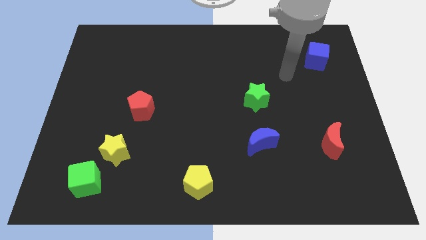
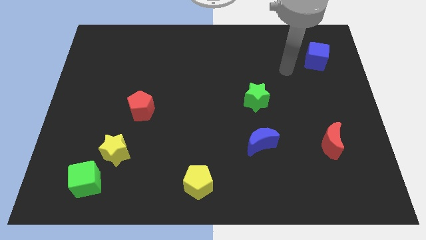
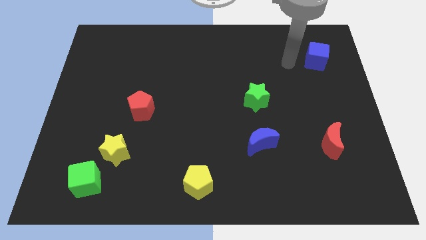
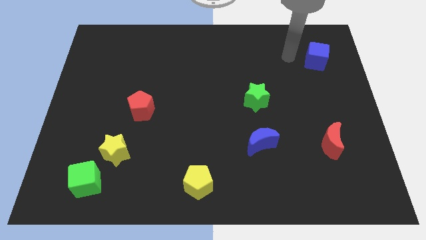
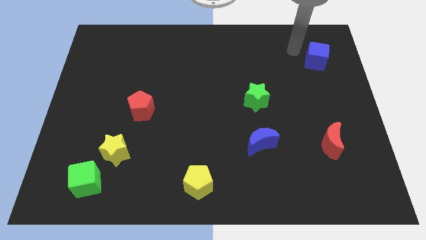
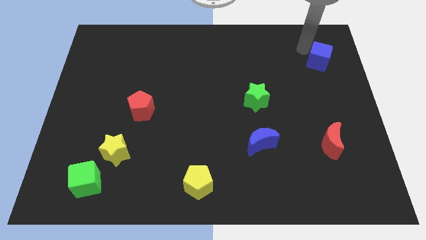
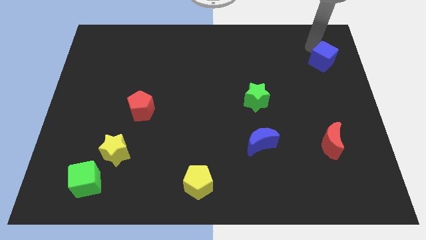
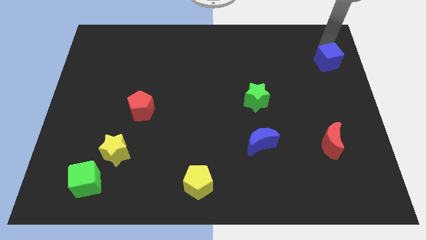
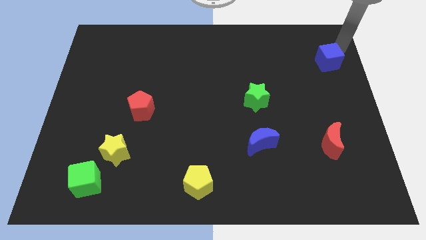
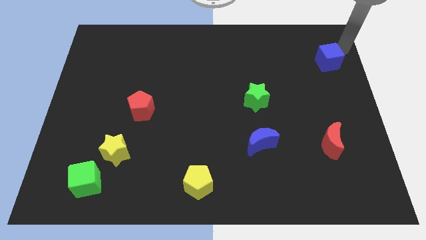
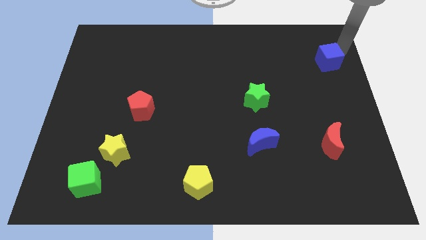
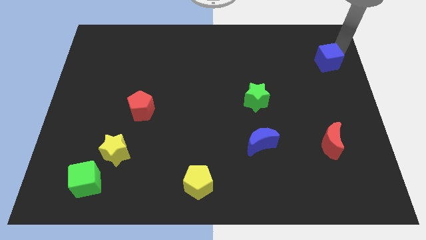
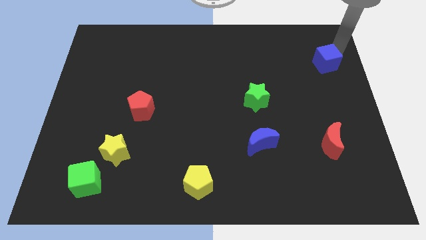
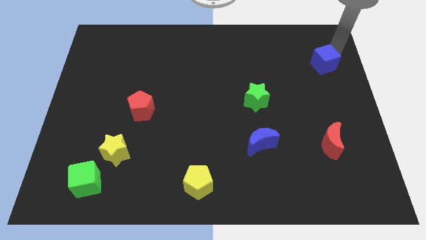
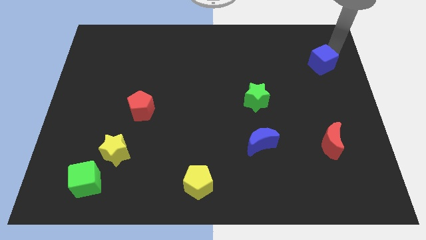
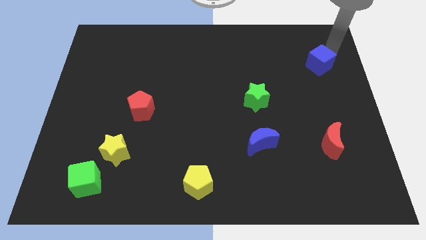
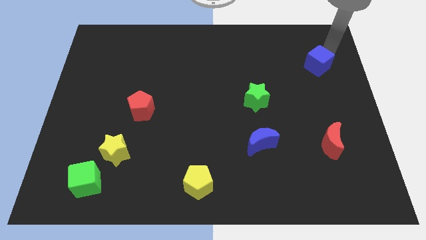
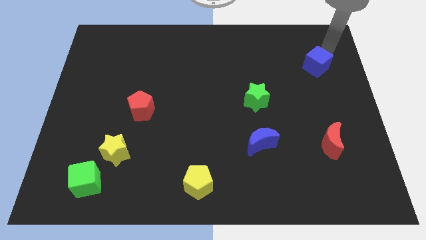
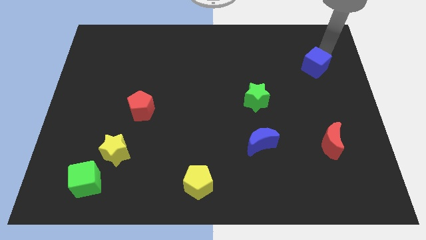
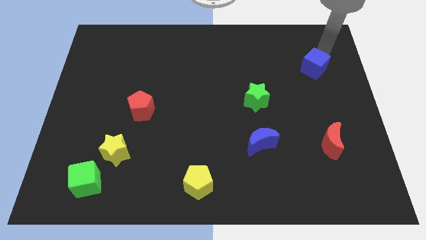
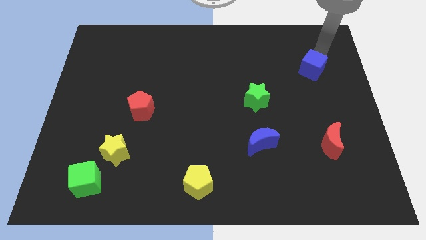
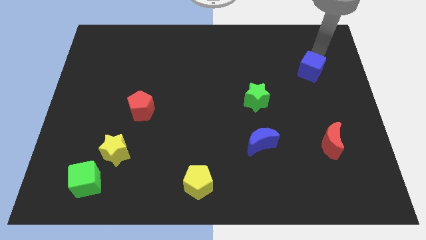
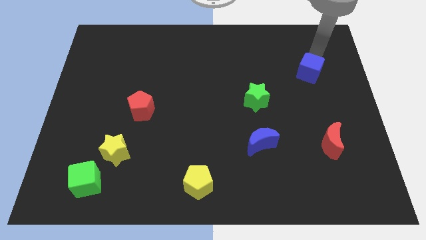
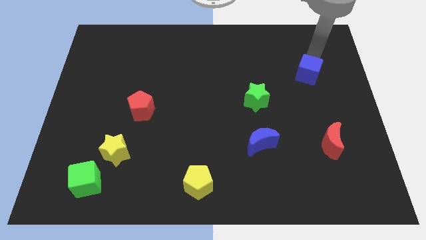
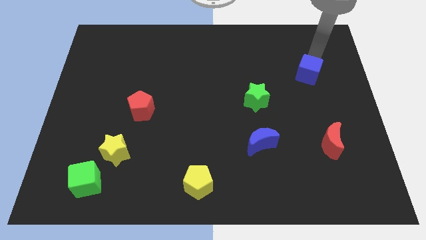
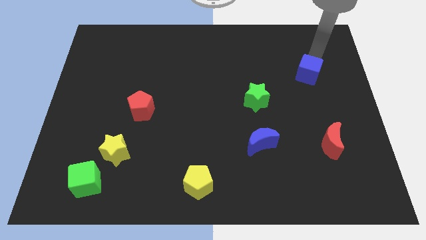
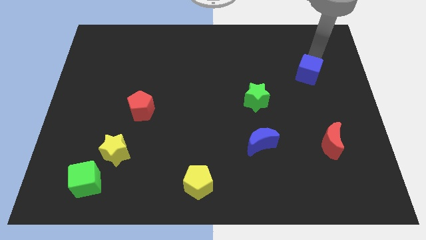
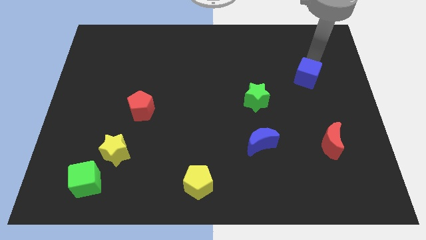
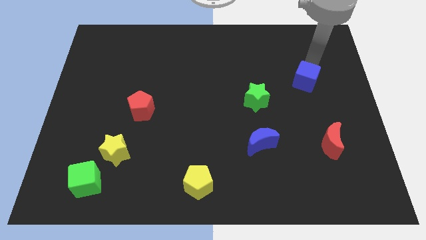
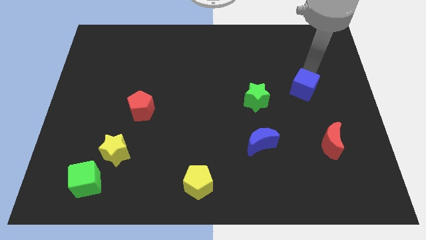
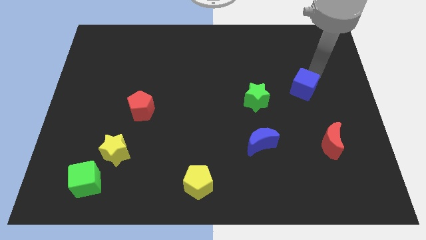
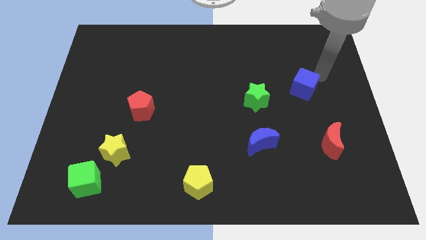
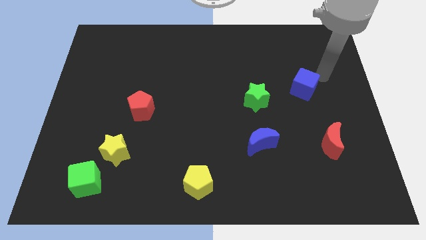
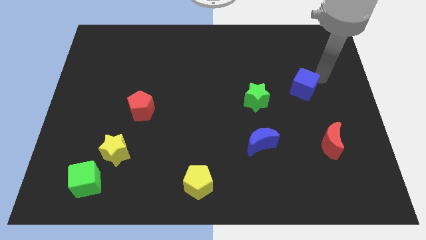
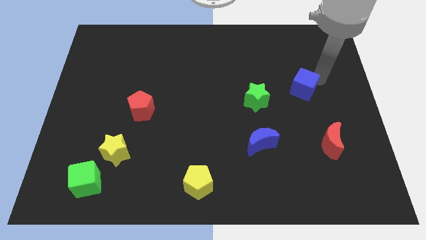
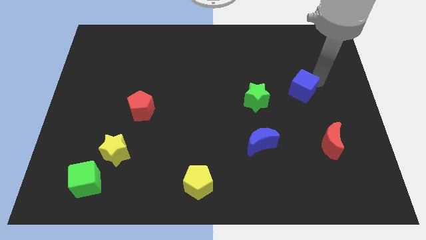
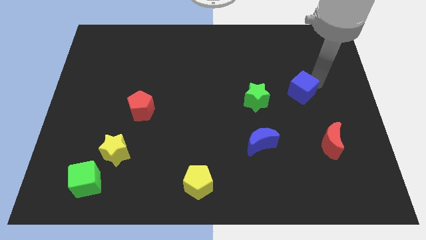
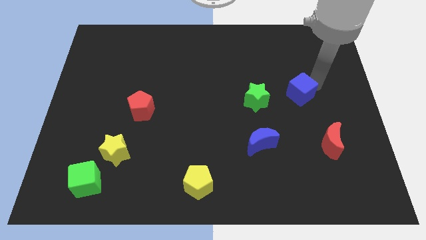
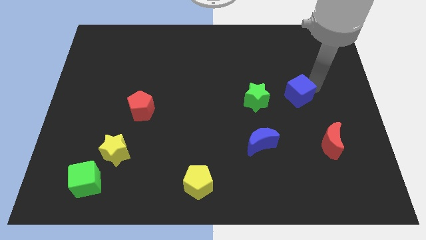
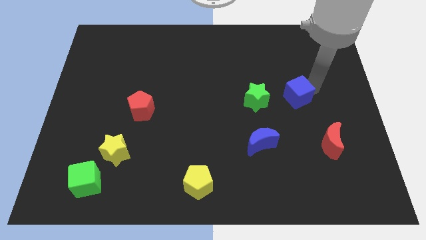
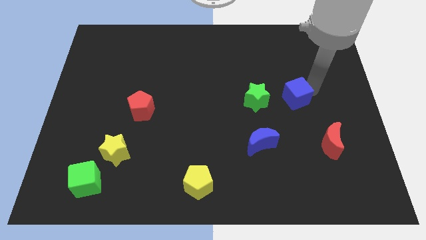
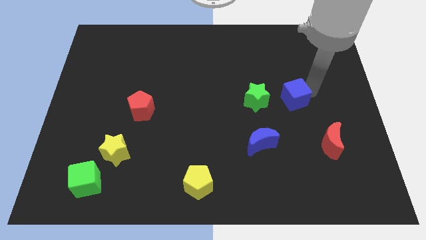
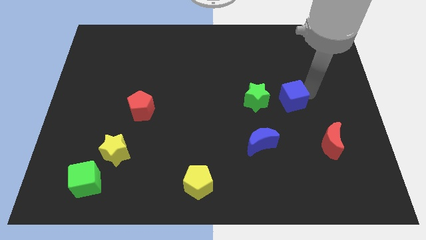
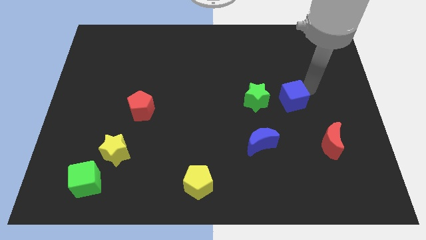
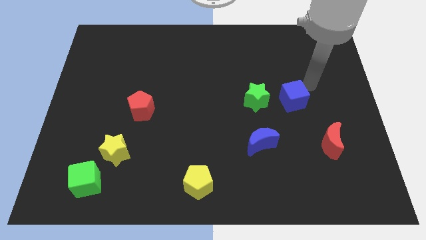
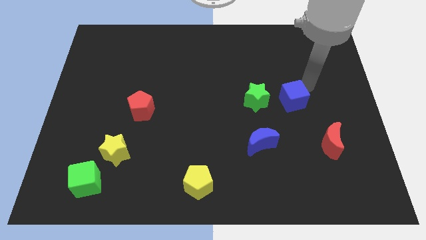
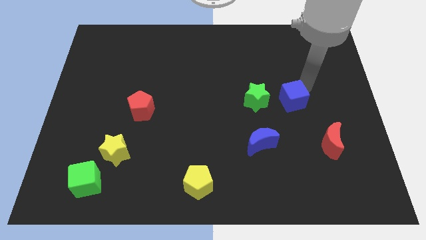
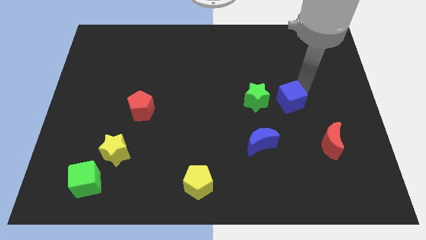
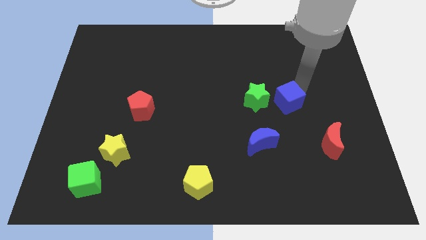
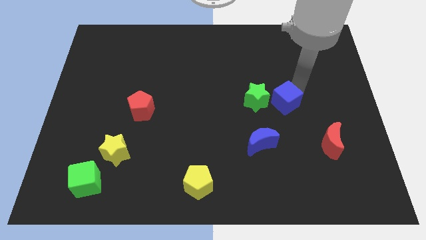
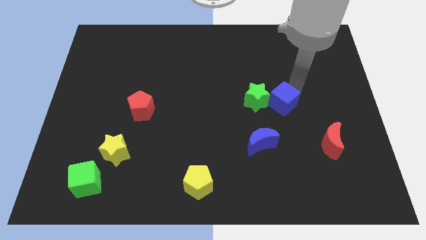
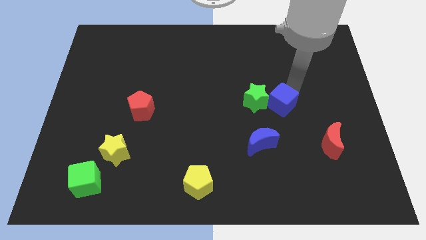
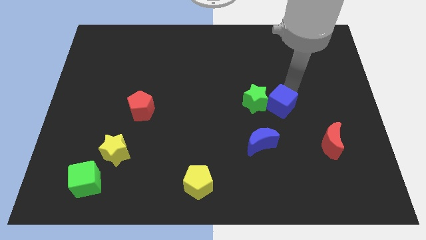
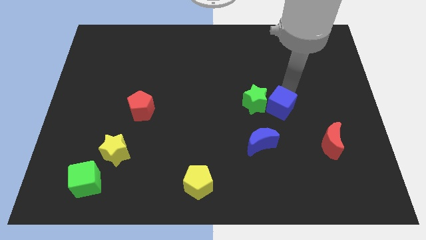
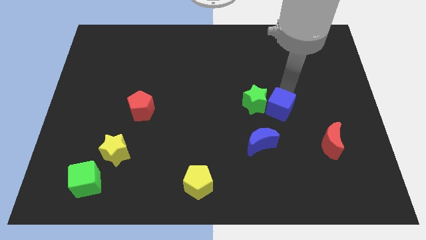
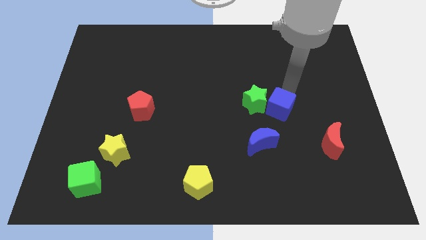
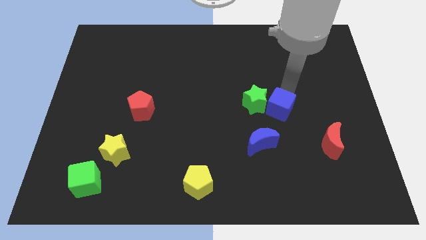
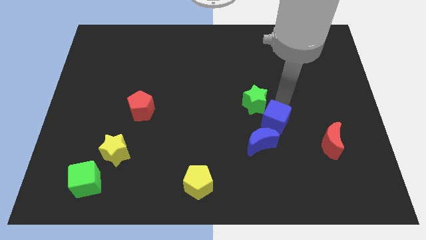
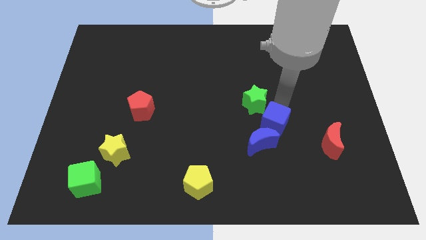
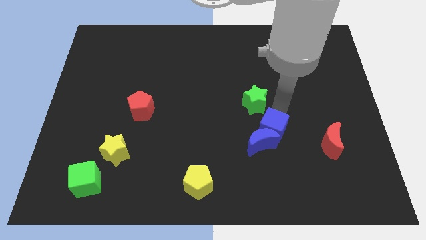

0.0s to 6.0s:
slide the blue cube next to the blue moon

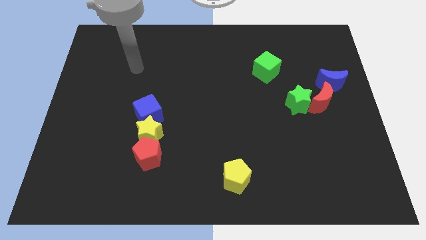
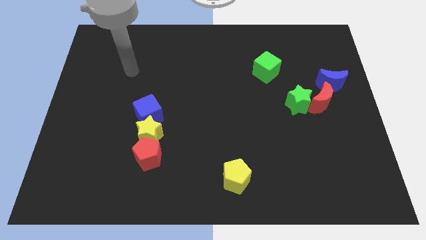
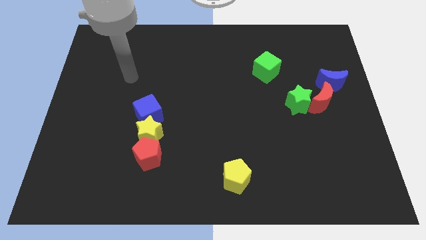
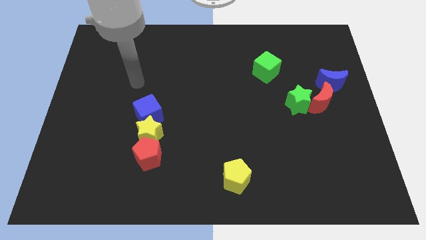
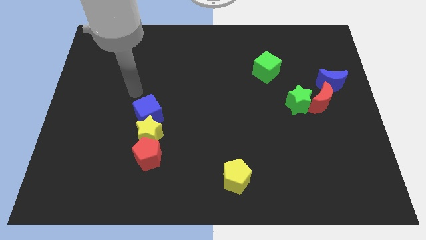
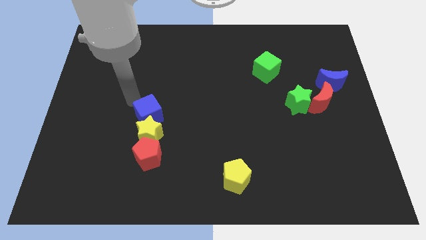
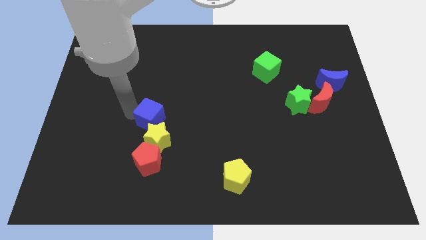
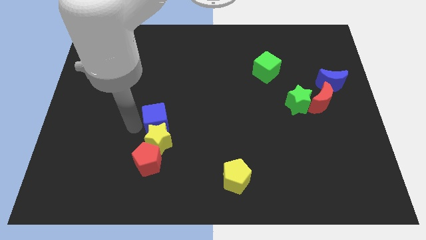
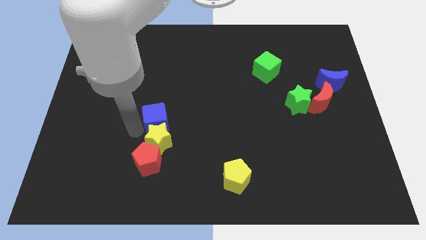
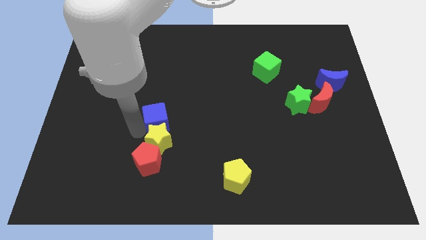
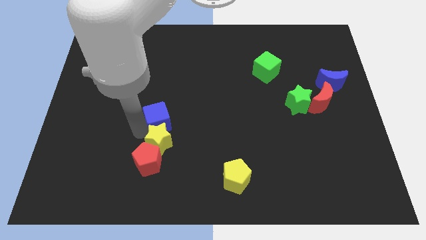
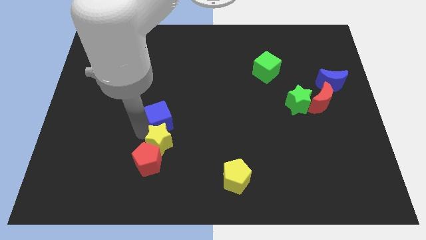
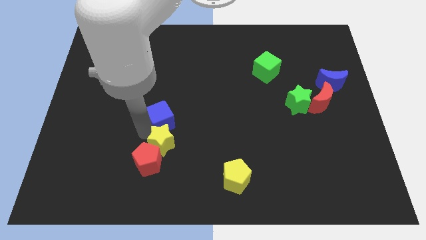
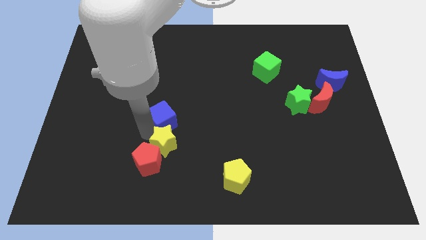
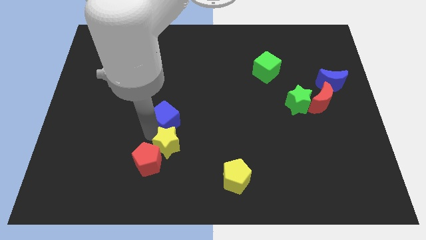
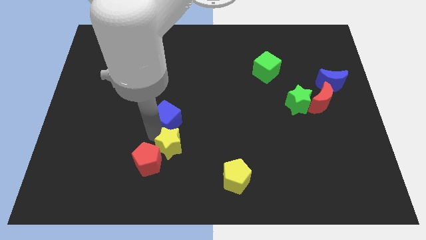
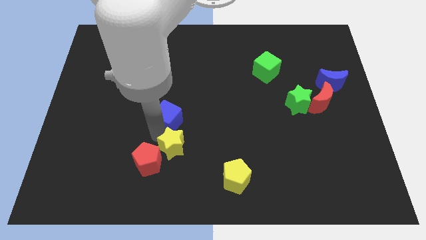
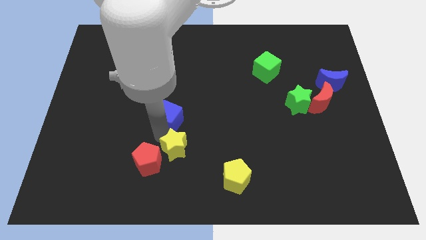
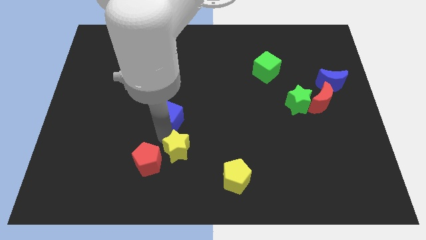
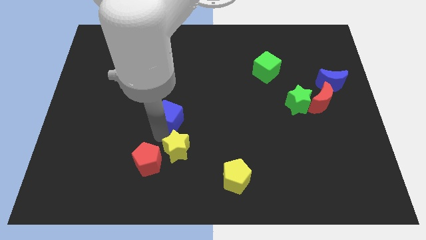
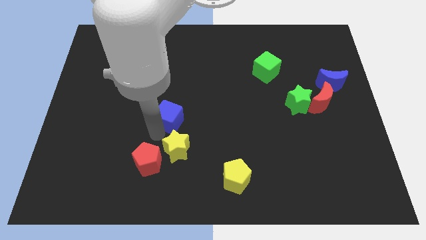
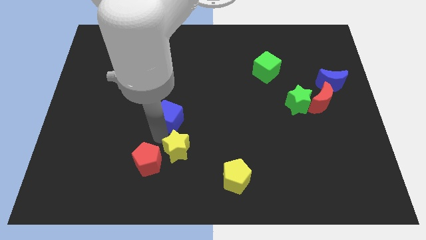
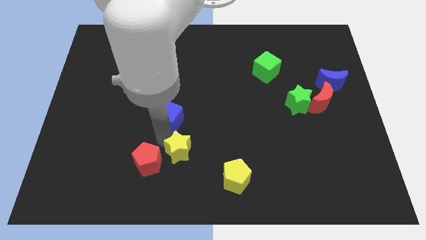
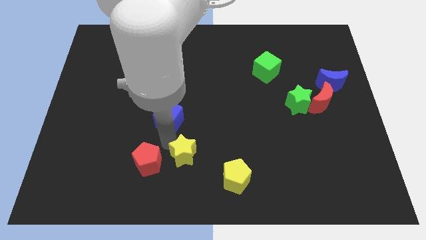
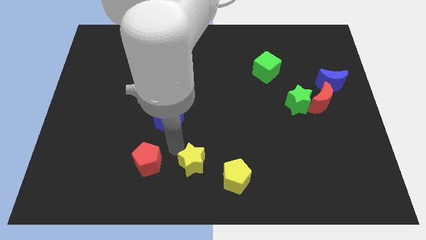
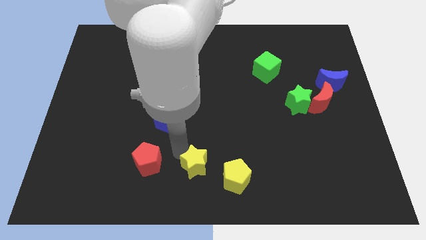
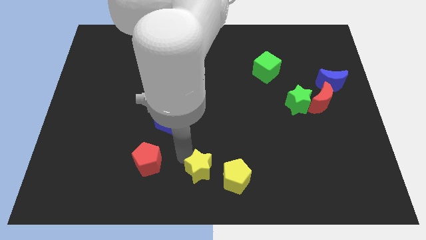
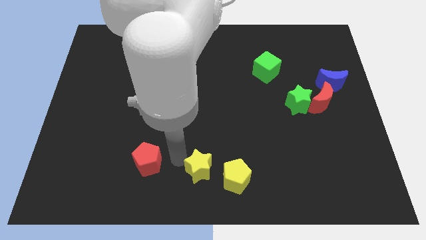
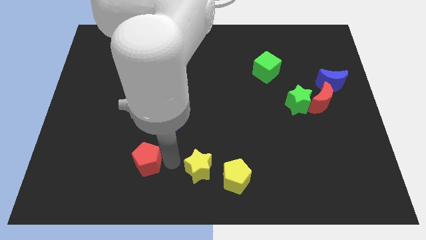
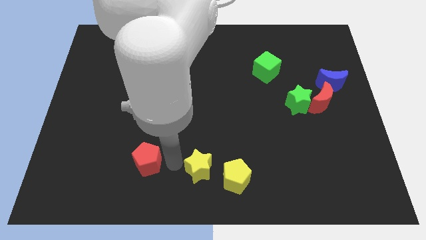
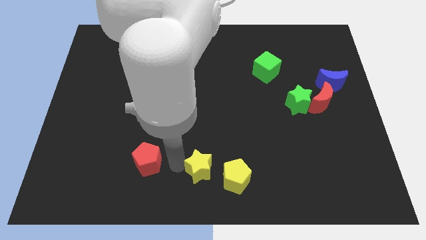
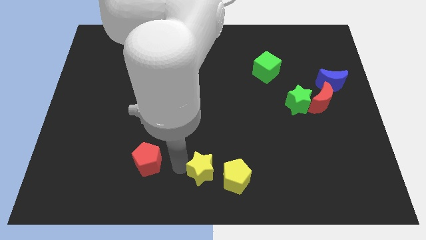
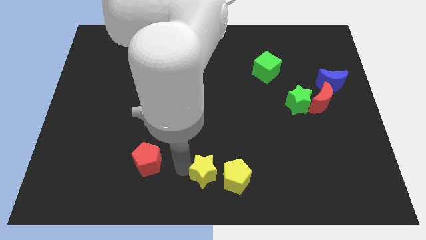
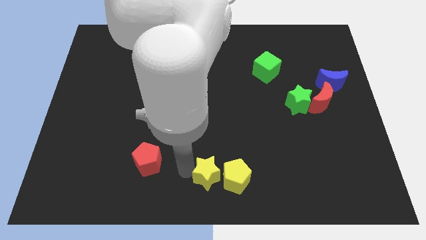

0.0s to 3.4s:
put the yellow star to the yellow pentagon
